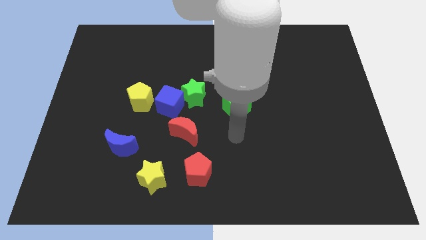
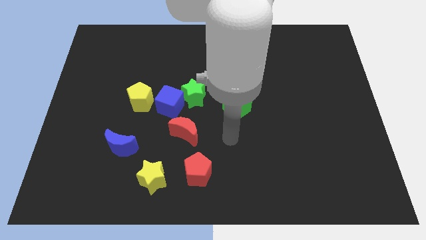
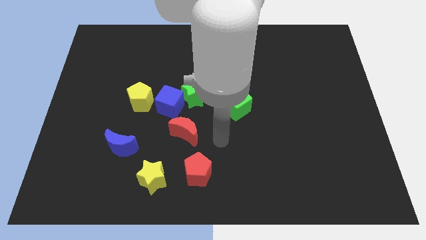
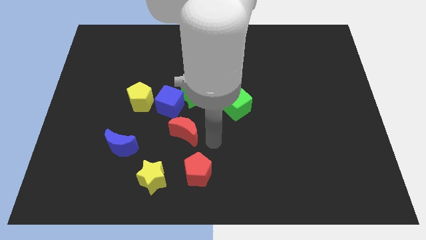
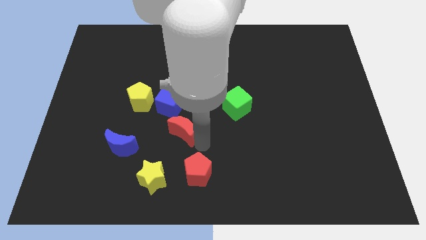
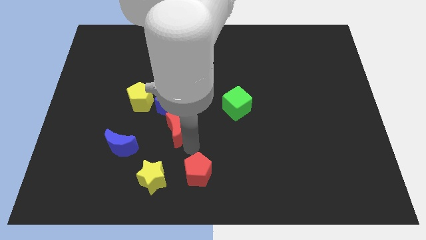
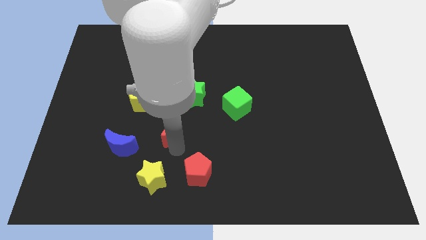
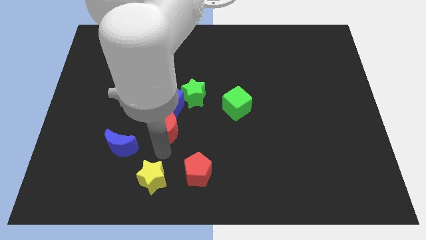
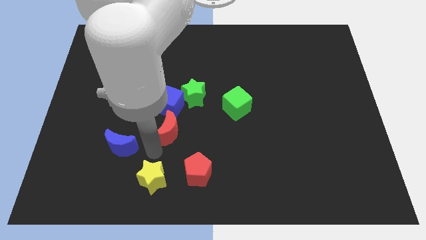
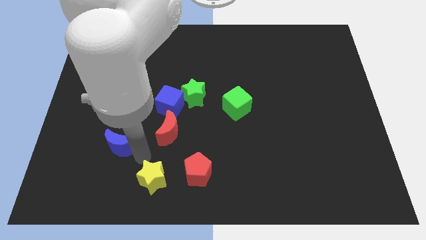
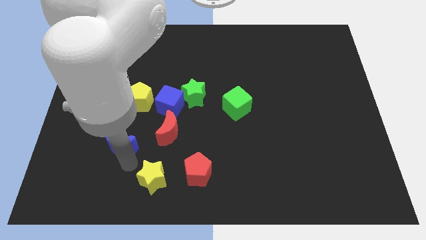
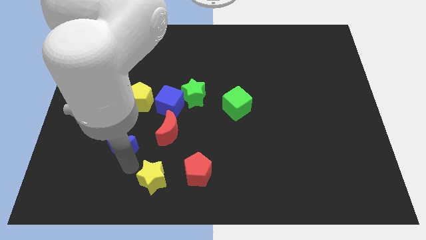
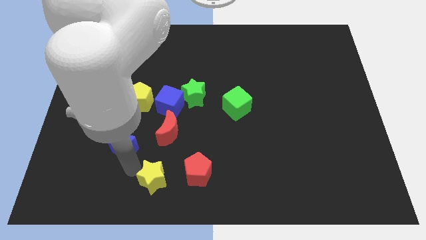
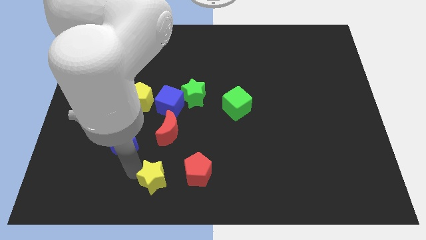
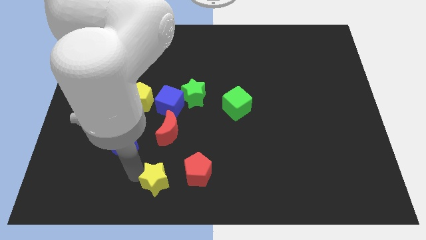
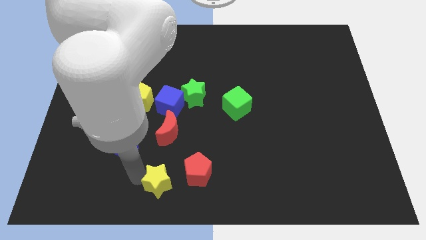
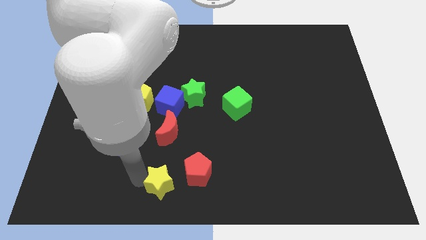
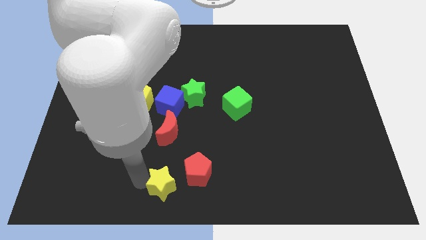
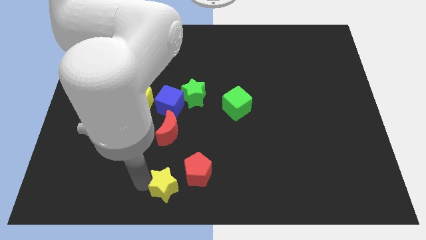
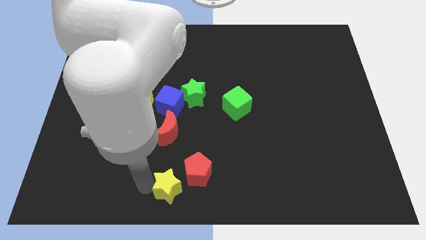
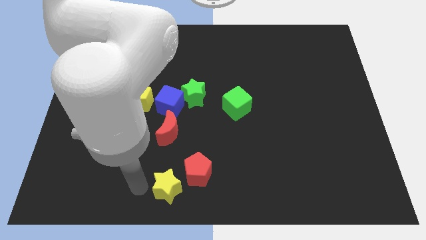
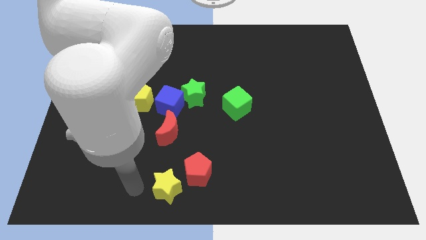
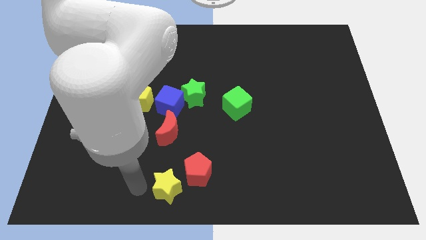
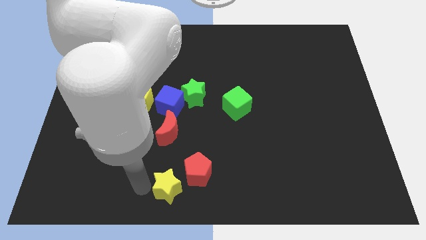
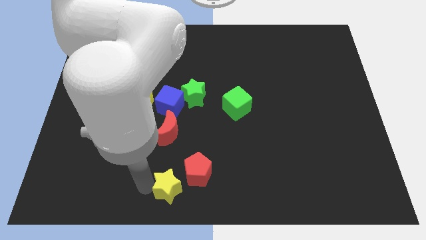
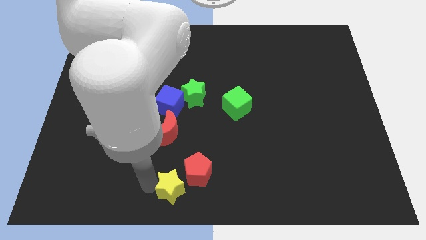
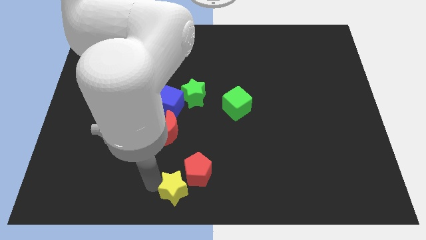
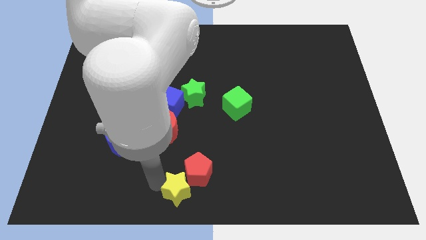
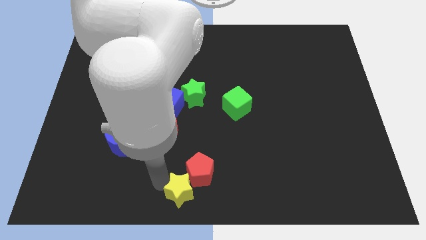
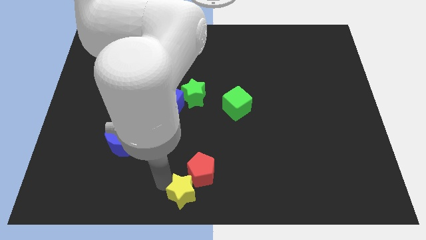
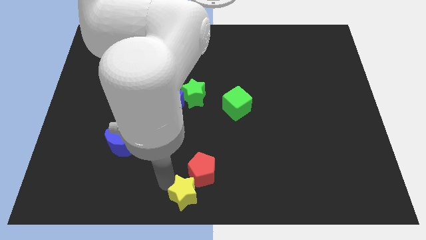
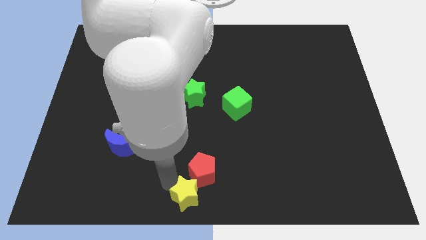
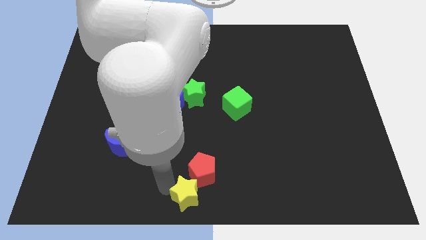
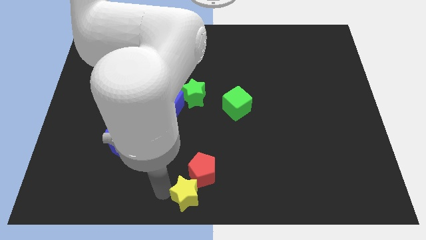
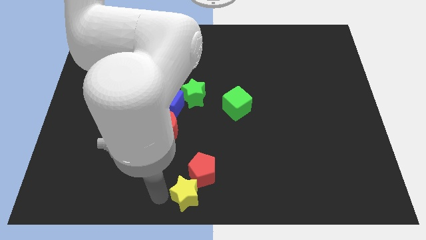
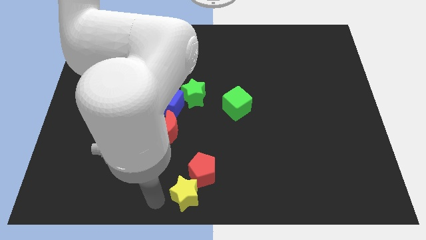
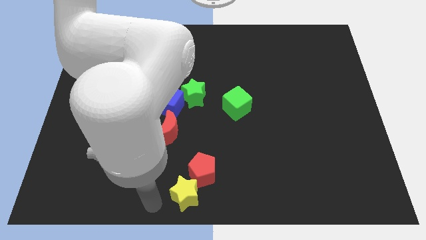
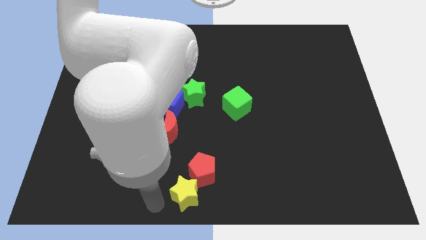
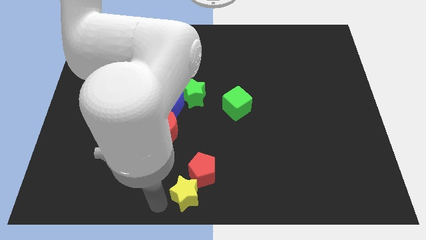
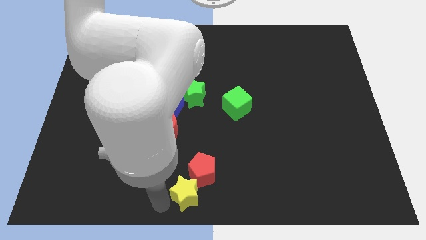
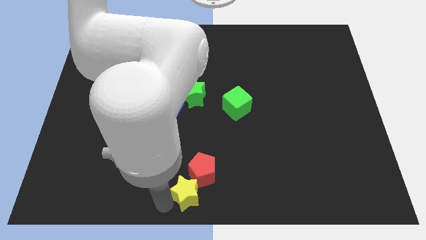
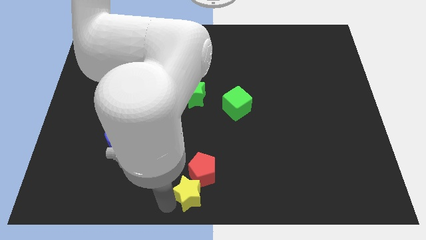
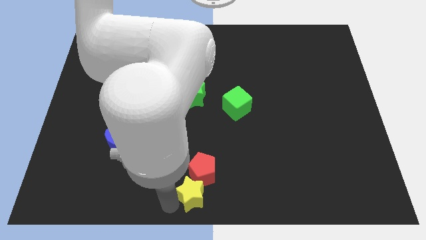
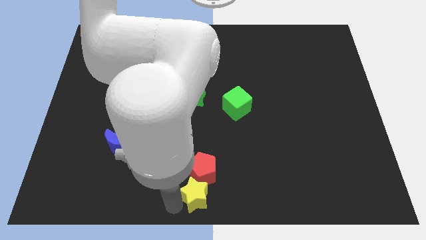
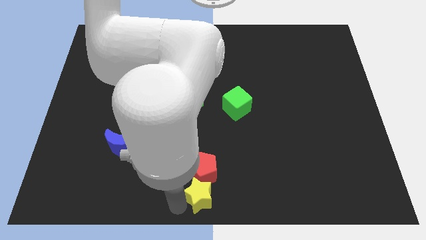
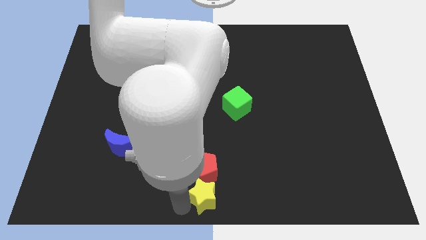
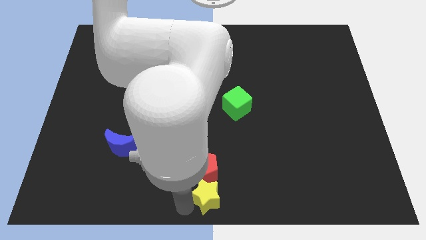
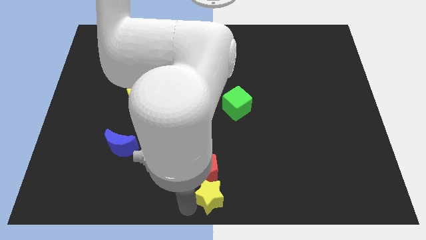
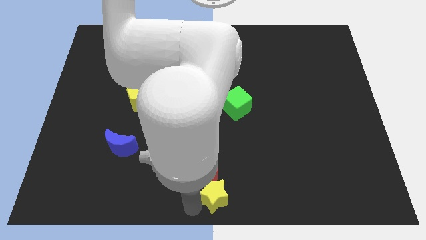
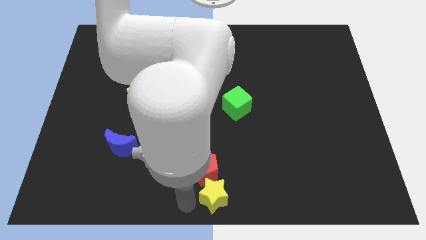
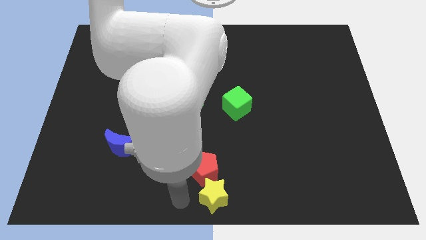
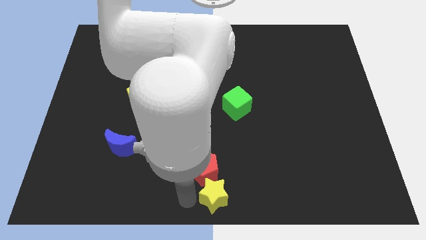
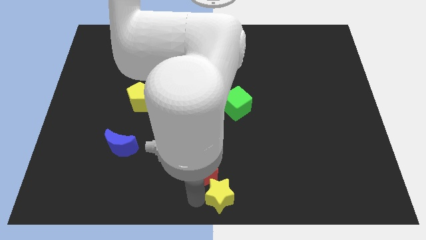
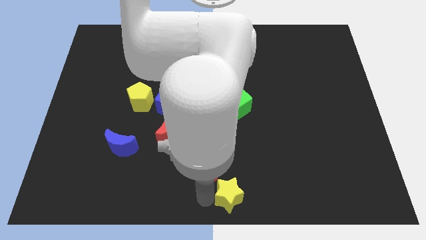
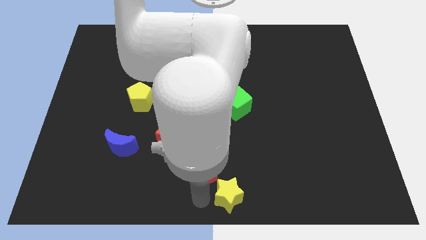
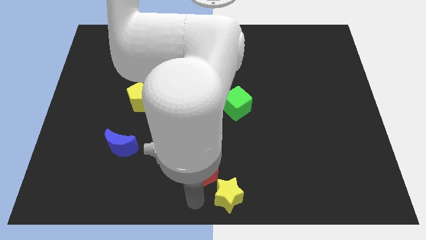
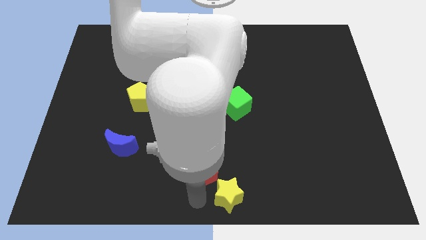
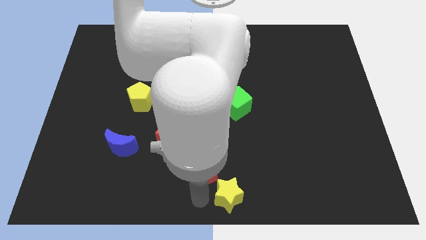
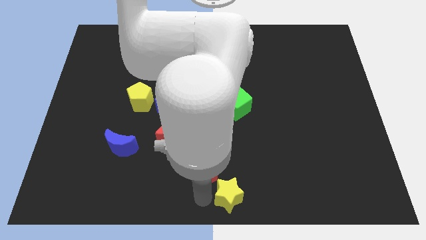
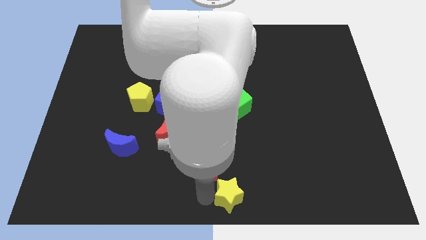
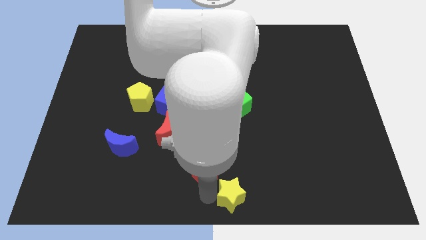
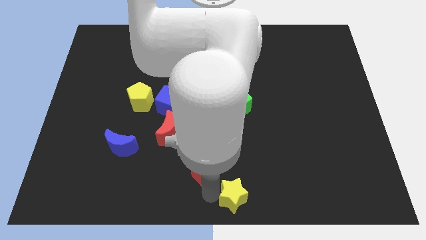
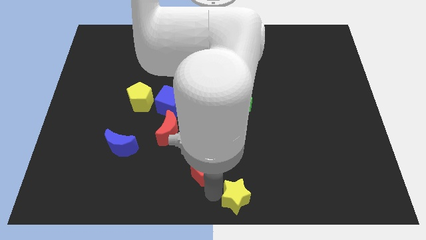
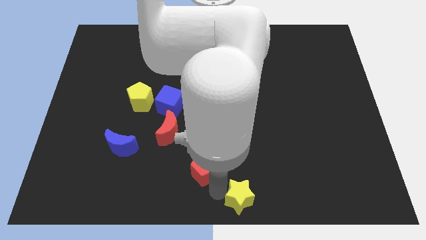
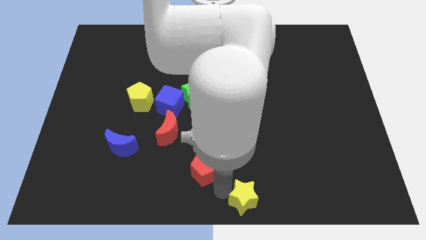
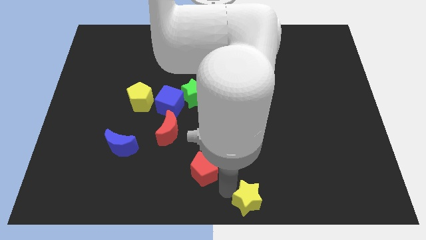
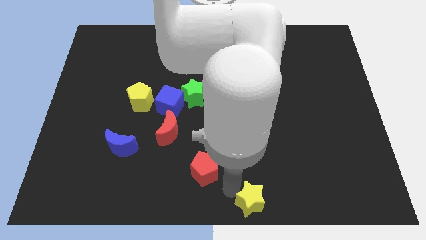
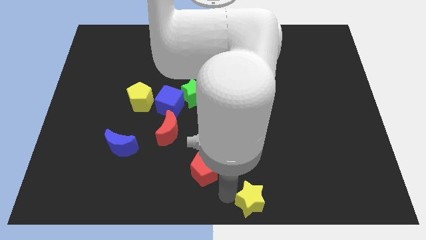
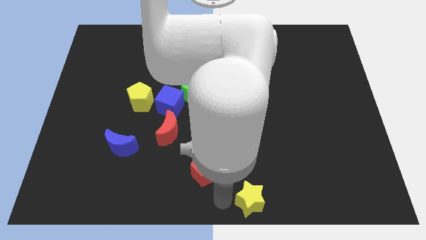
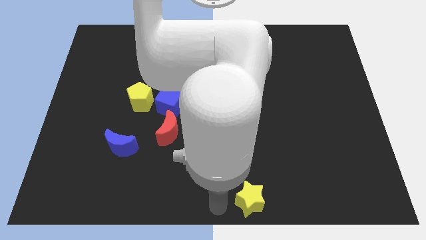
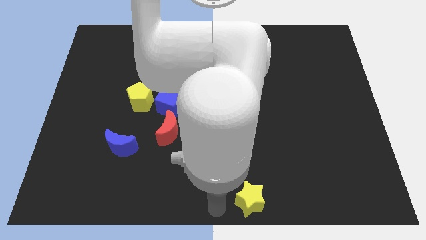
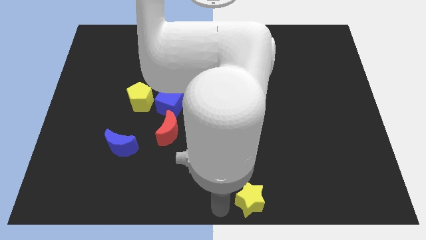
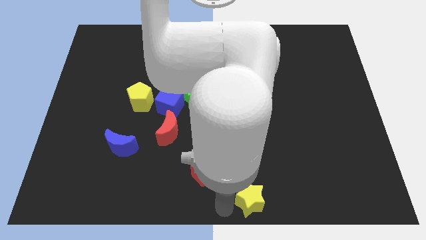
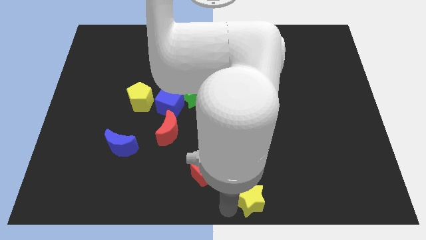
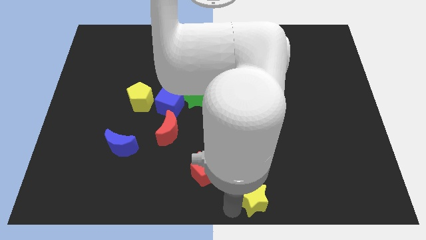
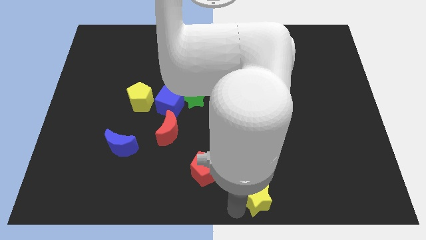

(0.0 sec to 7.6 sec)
move the yellow star right

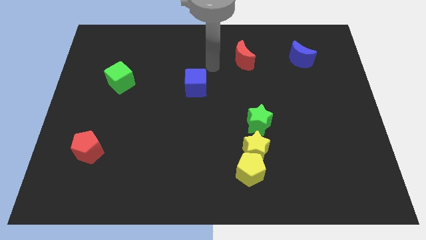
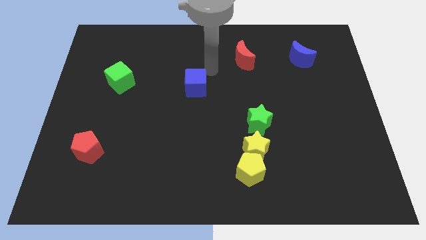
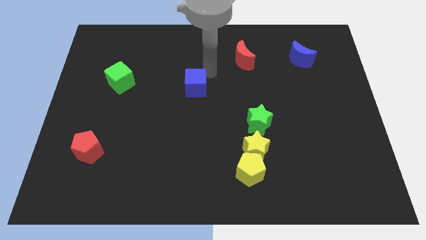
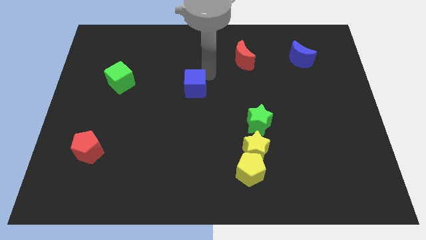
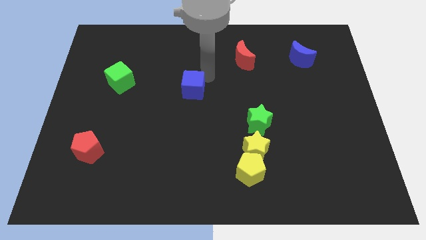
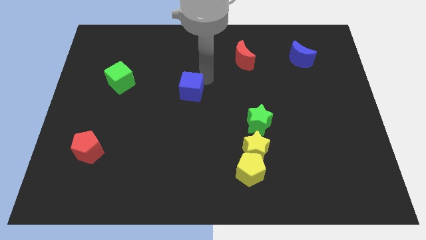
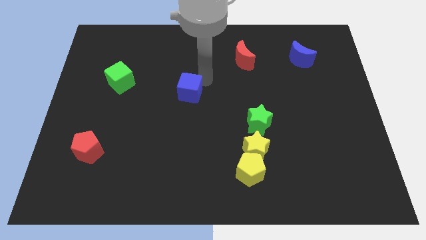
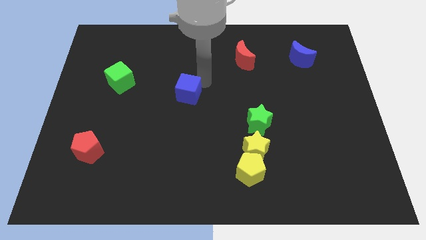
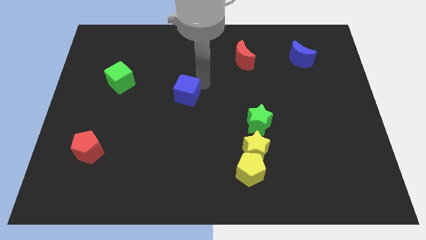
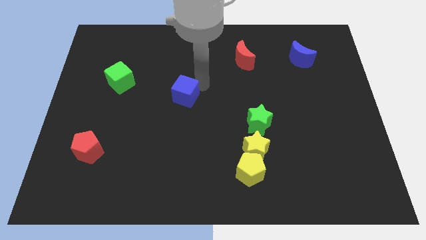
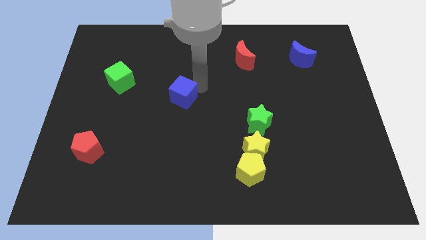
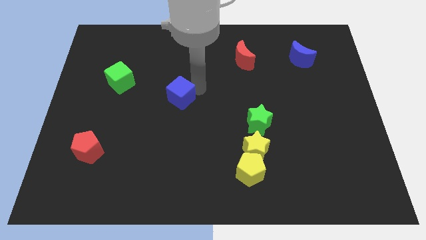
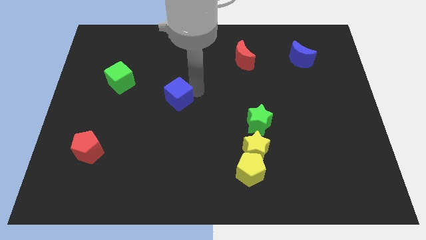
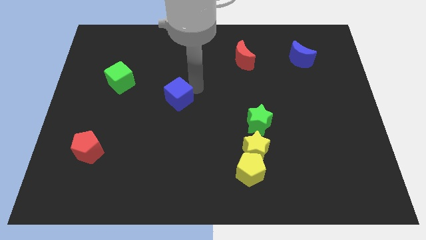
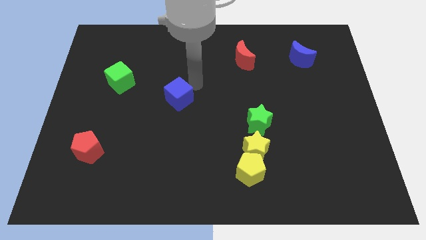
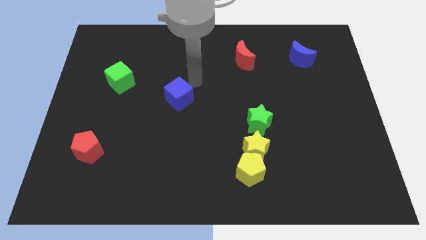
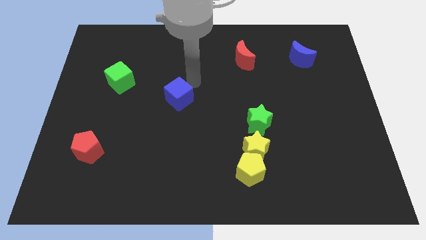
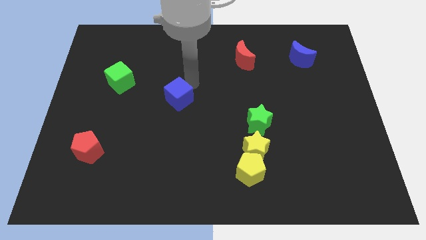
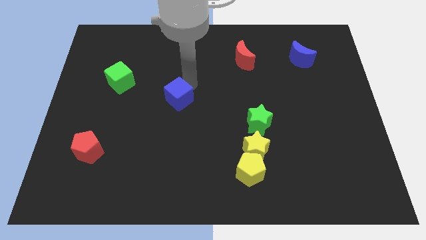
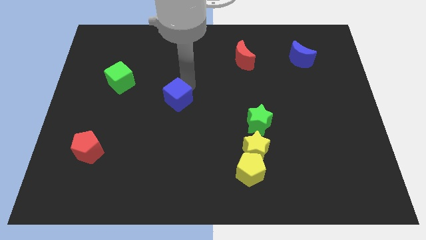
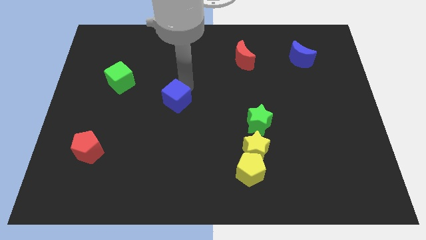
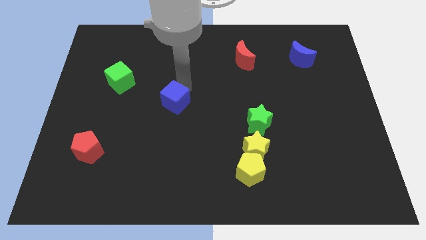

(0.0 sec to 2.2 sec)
push the blue cube down and to the left somewhat
